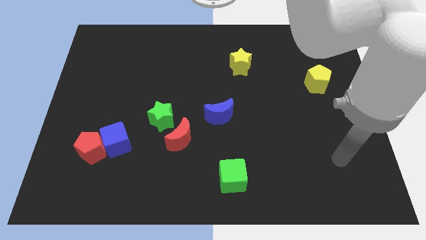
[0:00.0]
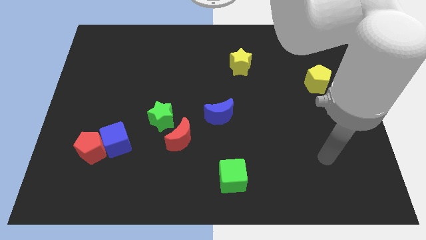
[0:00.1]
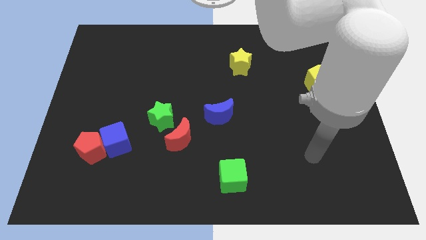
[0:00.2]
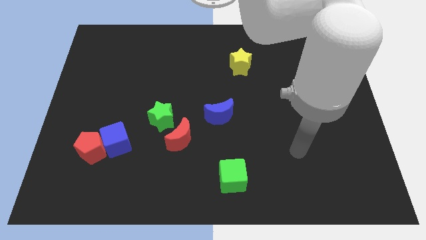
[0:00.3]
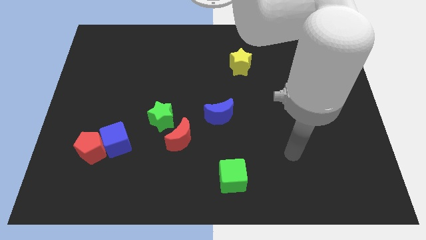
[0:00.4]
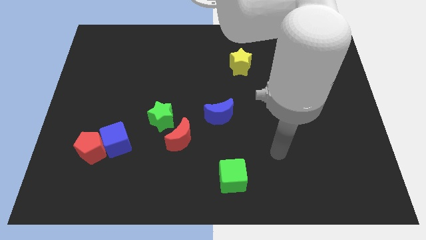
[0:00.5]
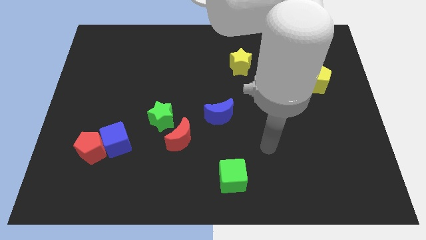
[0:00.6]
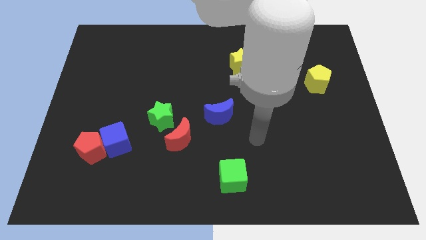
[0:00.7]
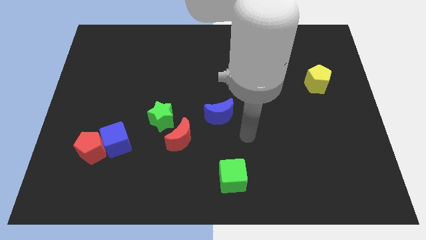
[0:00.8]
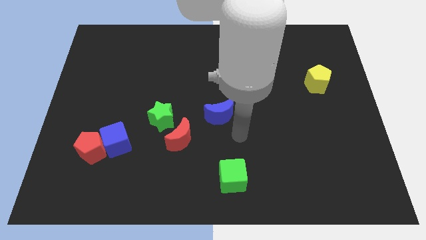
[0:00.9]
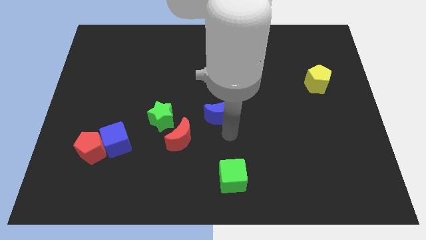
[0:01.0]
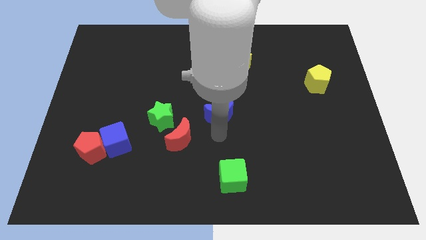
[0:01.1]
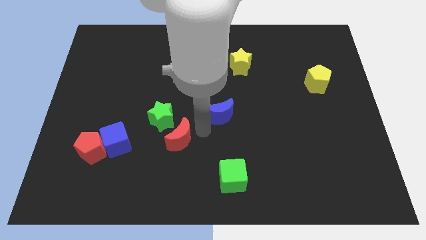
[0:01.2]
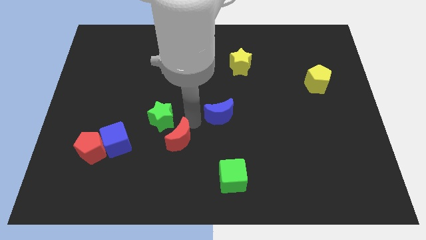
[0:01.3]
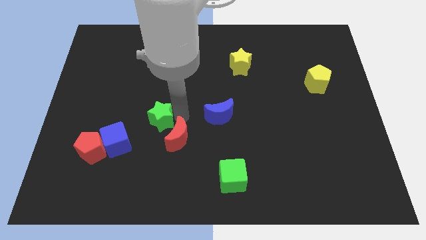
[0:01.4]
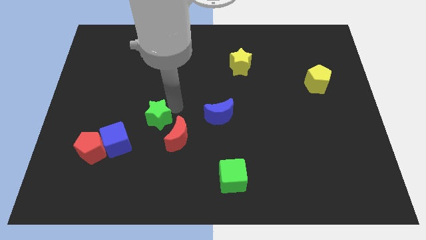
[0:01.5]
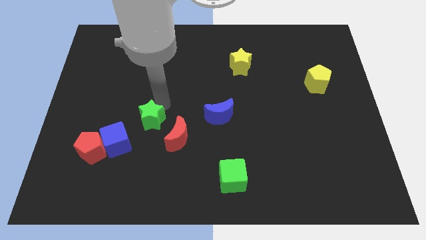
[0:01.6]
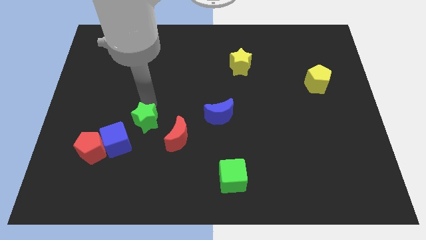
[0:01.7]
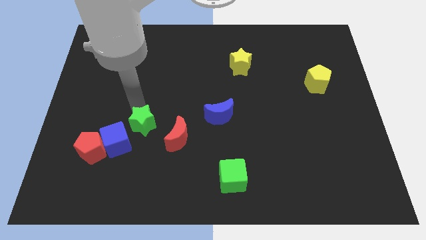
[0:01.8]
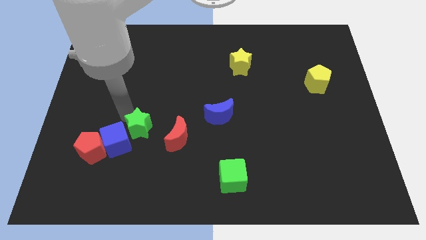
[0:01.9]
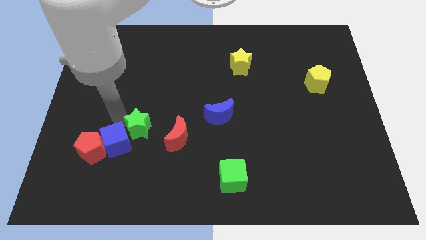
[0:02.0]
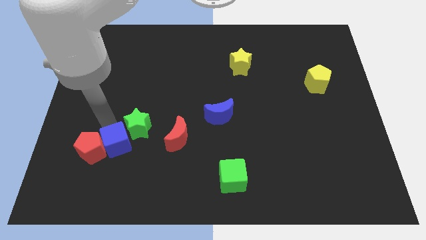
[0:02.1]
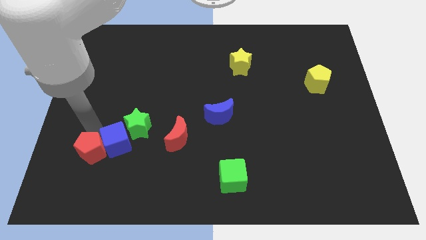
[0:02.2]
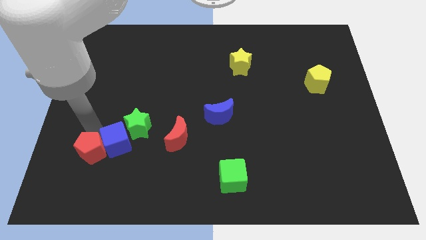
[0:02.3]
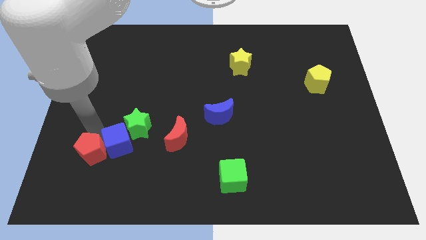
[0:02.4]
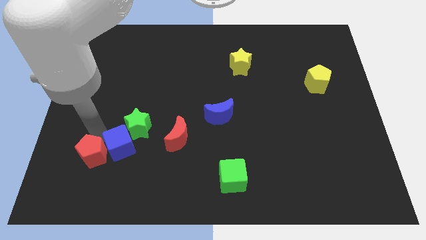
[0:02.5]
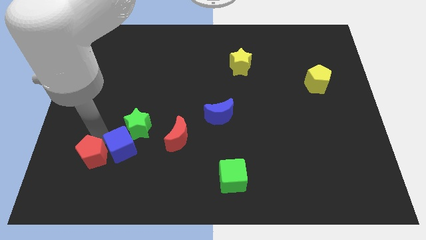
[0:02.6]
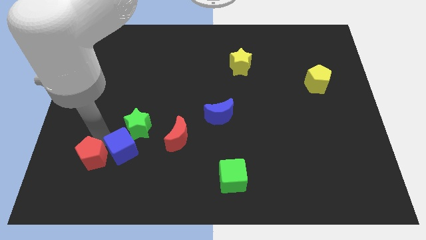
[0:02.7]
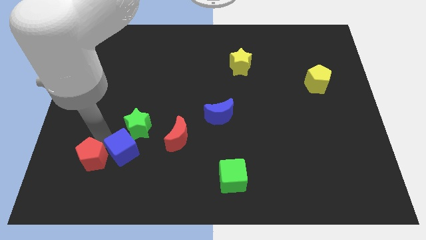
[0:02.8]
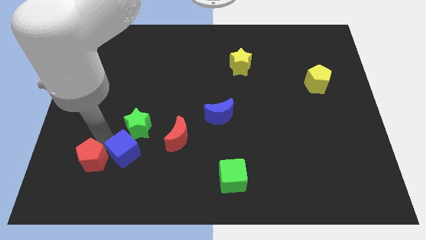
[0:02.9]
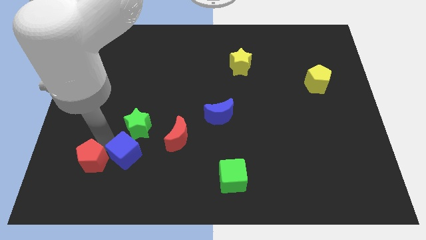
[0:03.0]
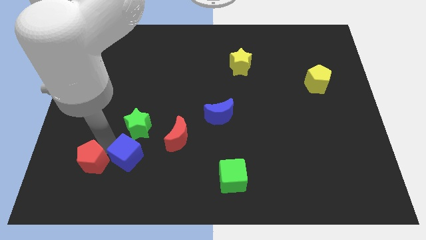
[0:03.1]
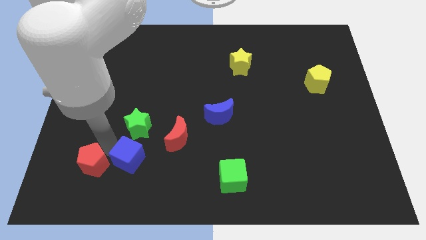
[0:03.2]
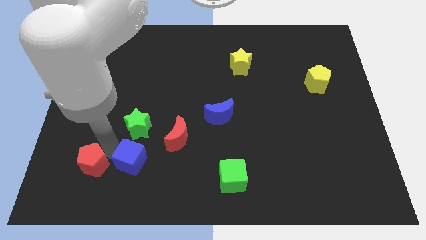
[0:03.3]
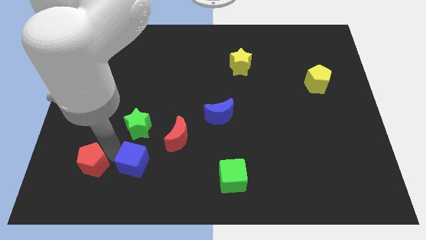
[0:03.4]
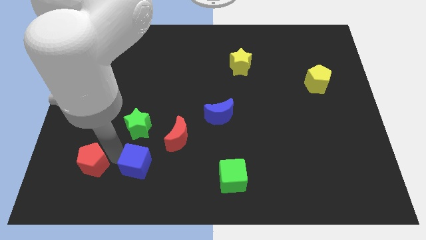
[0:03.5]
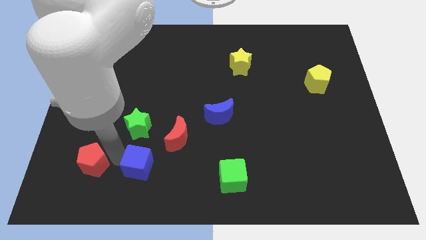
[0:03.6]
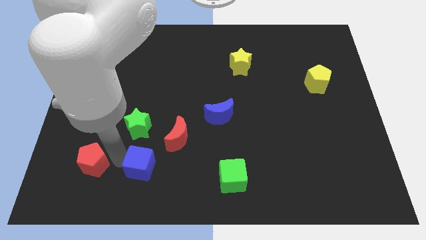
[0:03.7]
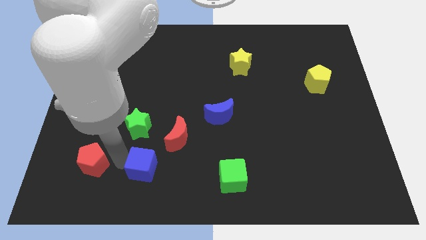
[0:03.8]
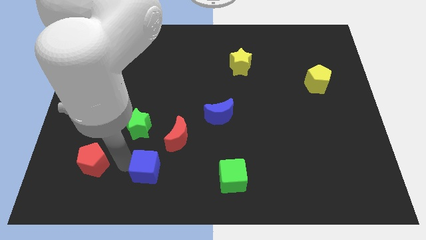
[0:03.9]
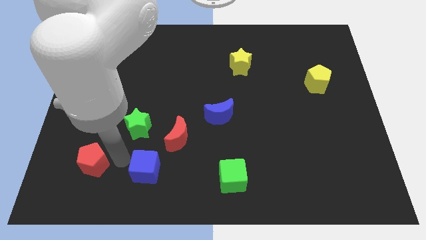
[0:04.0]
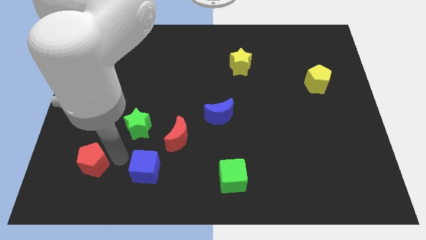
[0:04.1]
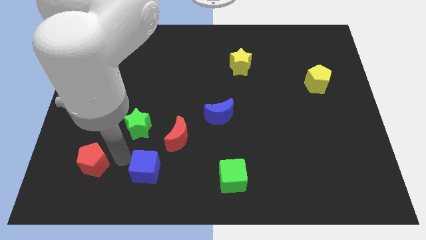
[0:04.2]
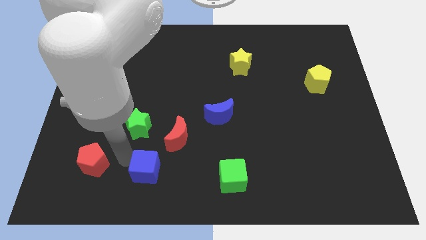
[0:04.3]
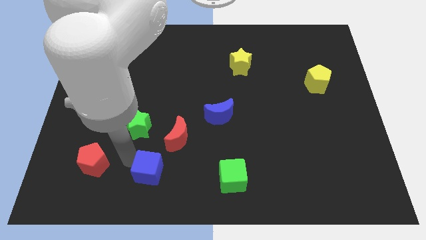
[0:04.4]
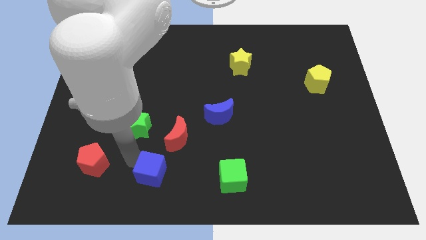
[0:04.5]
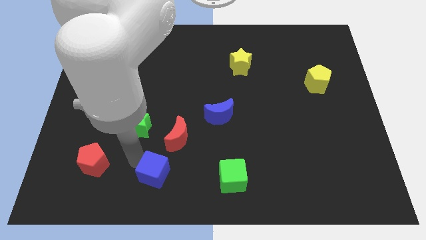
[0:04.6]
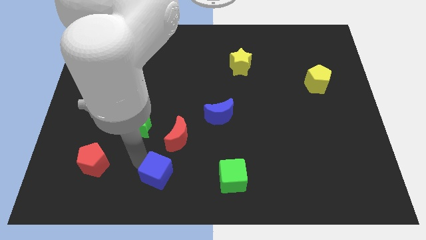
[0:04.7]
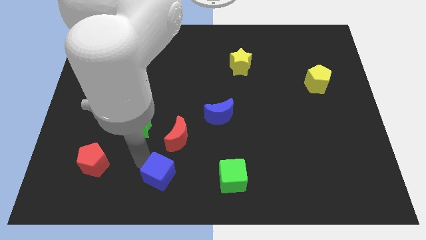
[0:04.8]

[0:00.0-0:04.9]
put the blue cube to the bottom
